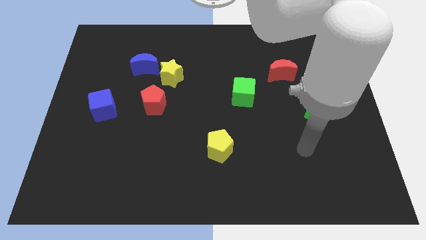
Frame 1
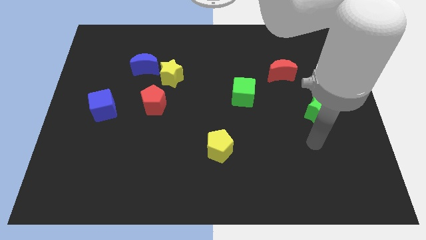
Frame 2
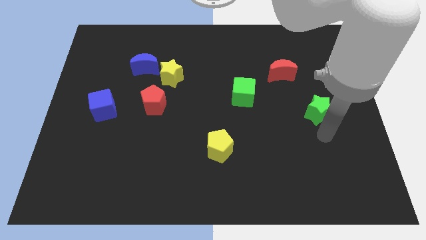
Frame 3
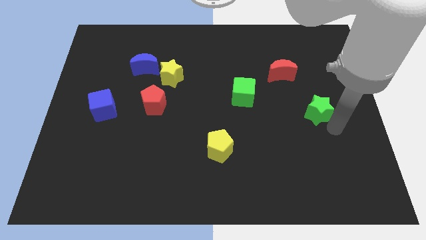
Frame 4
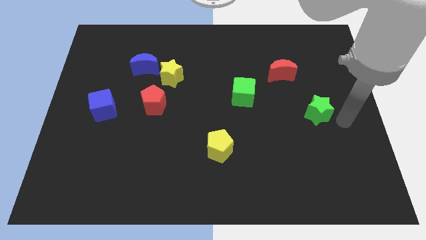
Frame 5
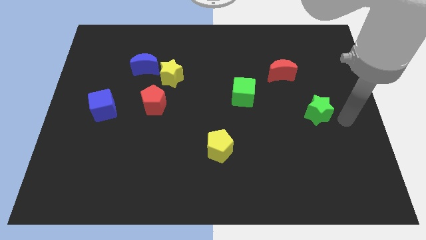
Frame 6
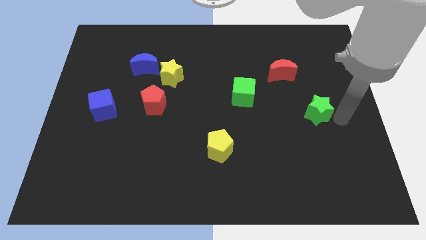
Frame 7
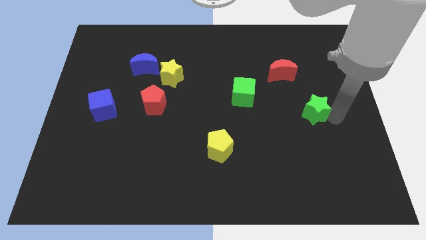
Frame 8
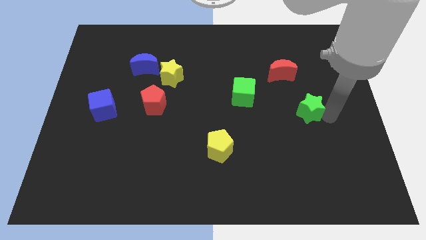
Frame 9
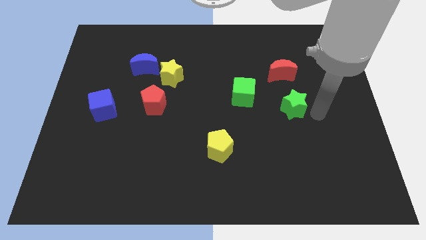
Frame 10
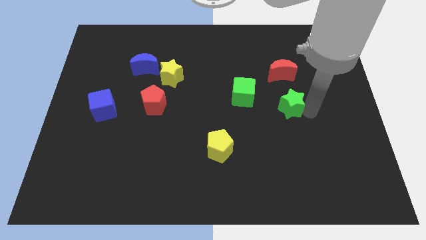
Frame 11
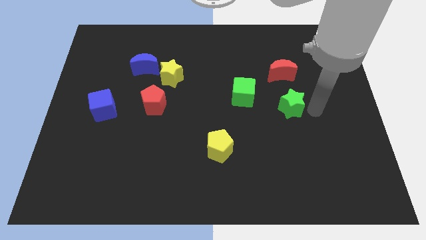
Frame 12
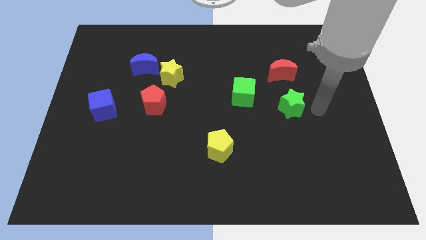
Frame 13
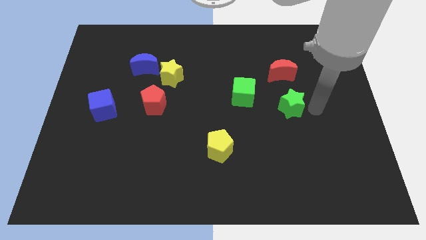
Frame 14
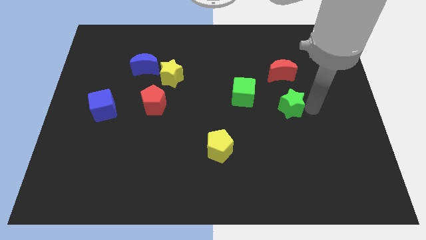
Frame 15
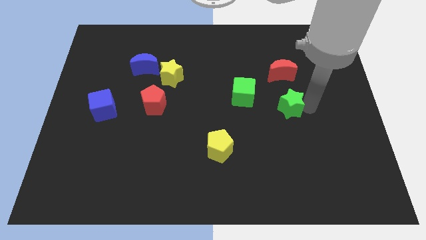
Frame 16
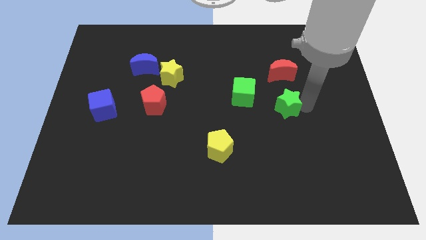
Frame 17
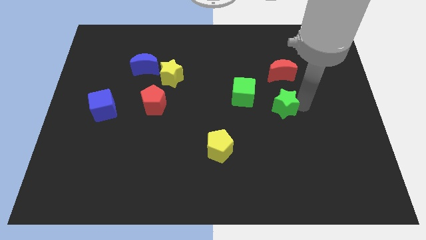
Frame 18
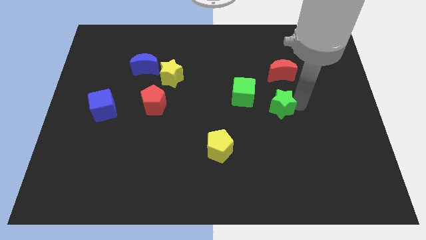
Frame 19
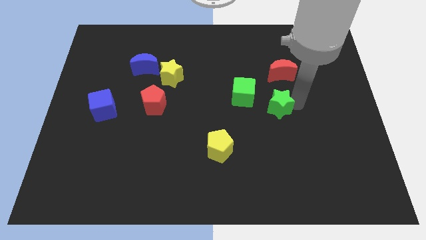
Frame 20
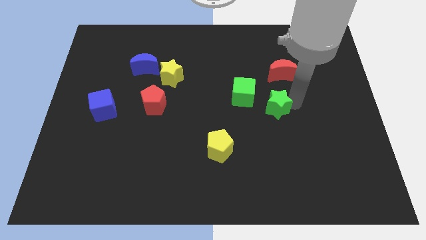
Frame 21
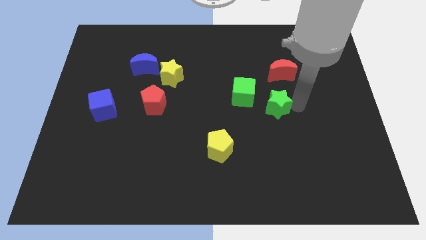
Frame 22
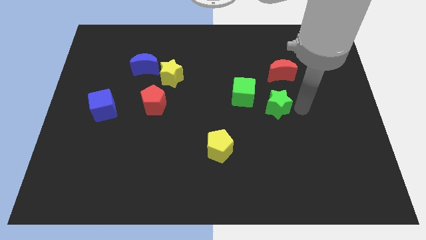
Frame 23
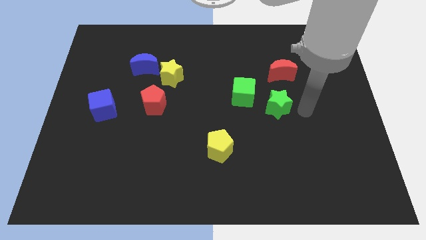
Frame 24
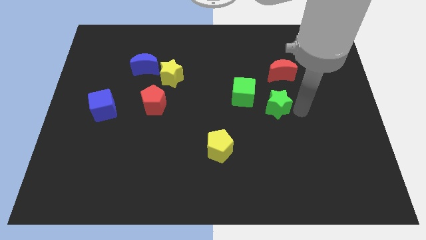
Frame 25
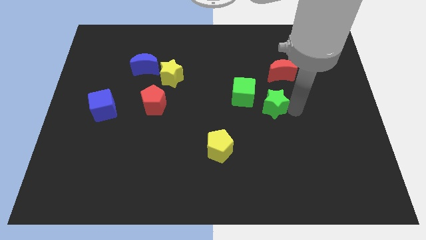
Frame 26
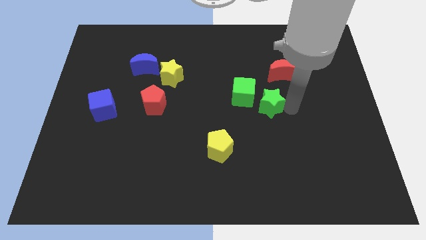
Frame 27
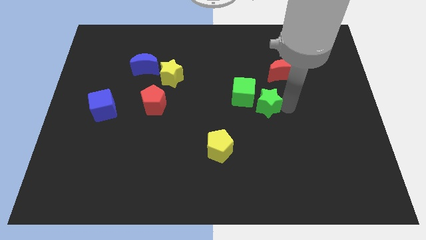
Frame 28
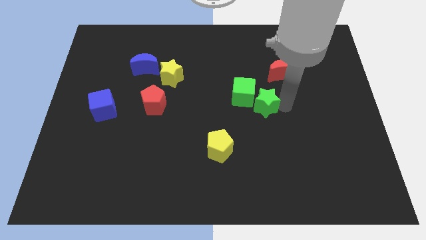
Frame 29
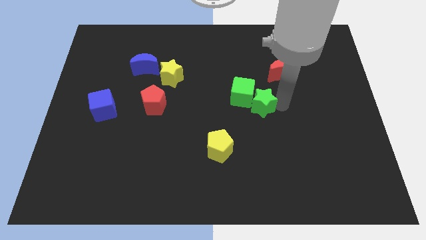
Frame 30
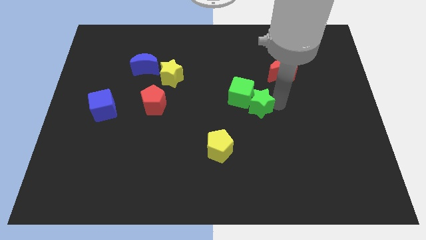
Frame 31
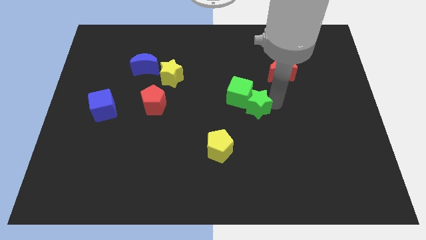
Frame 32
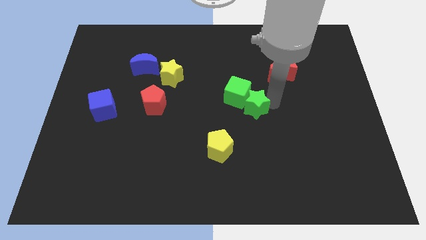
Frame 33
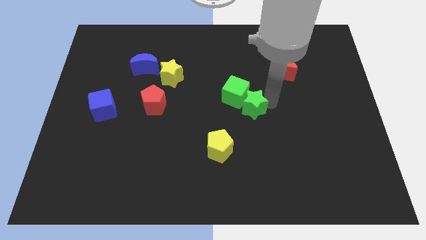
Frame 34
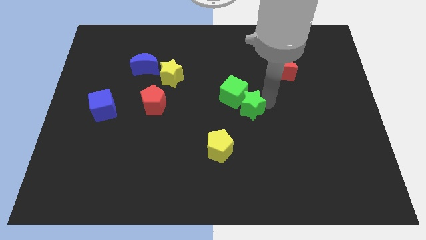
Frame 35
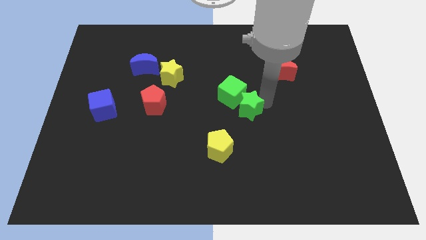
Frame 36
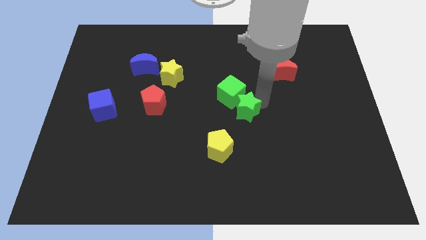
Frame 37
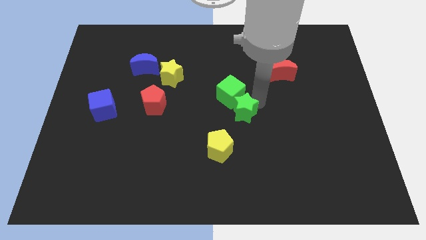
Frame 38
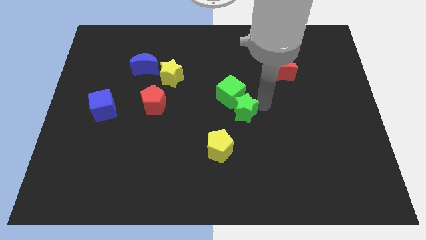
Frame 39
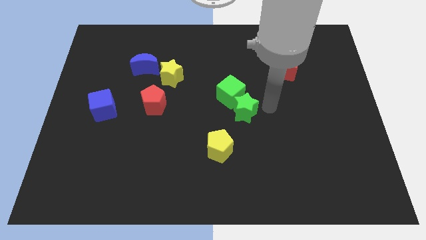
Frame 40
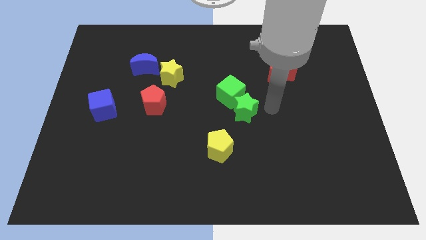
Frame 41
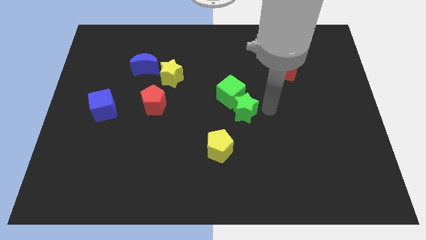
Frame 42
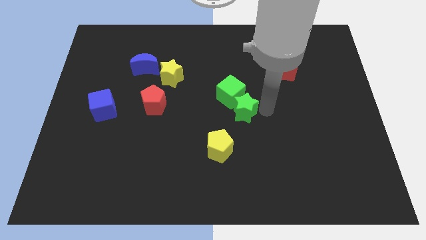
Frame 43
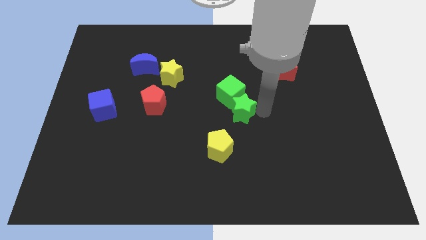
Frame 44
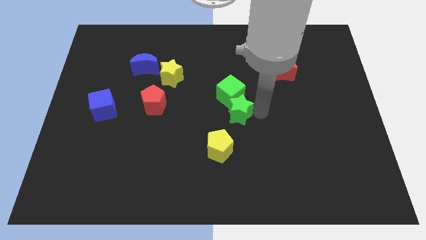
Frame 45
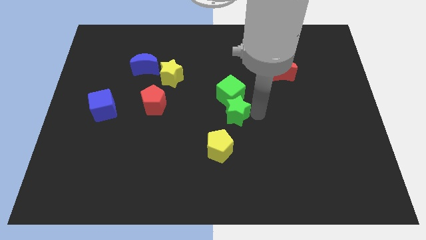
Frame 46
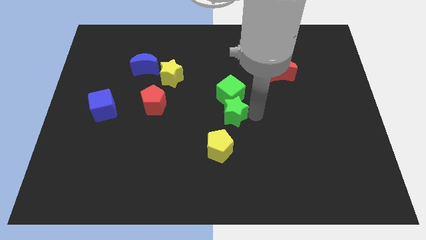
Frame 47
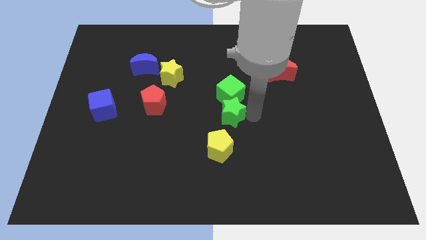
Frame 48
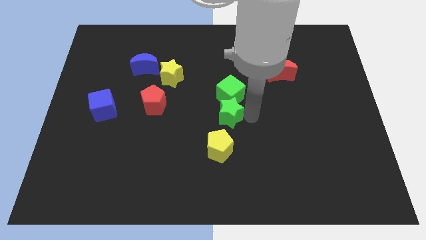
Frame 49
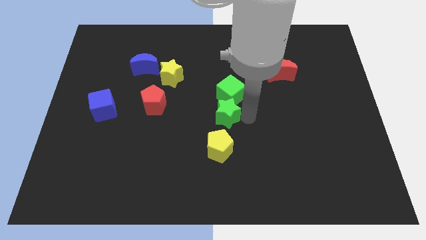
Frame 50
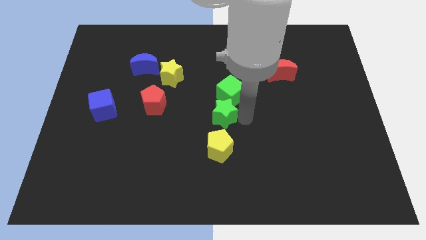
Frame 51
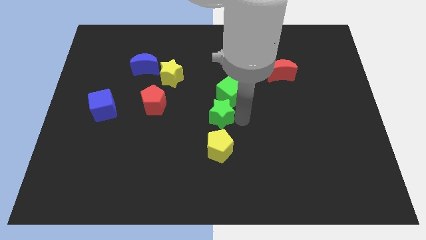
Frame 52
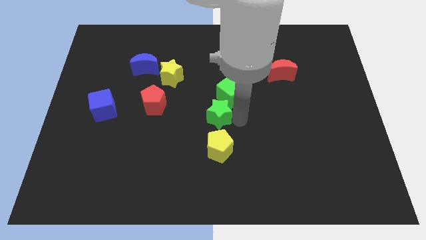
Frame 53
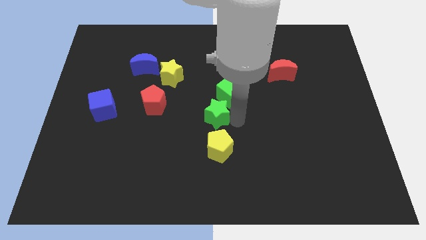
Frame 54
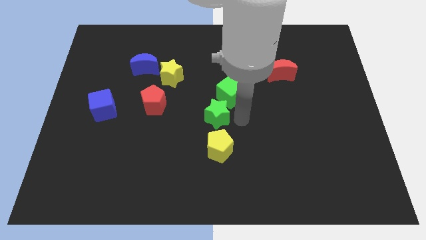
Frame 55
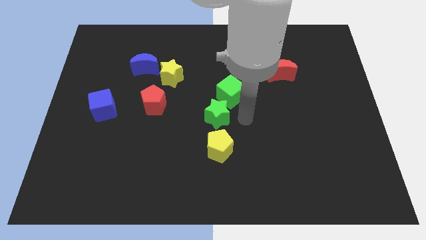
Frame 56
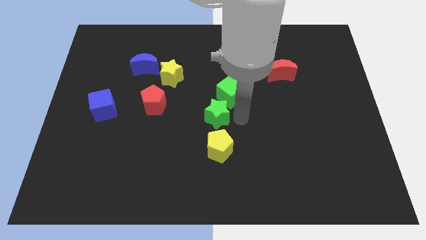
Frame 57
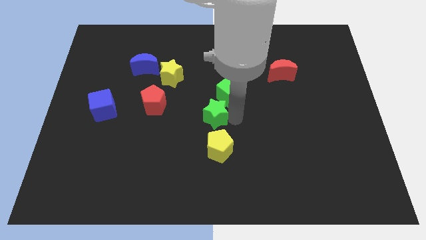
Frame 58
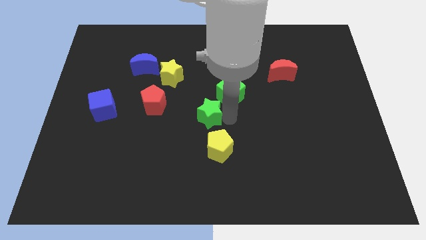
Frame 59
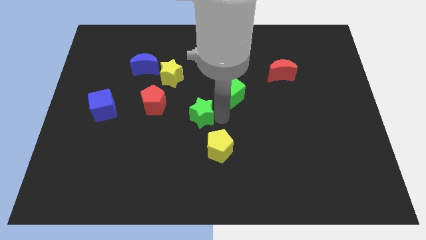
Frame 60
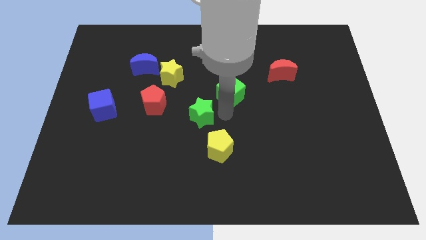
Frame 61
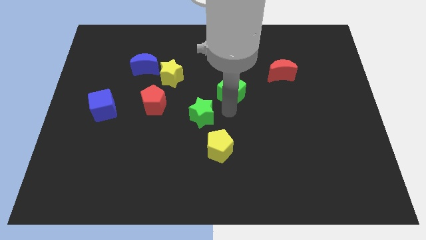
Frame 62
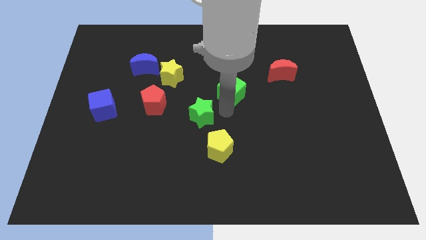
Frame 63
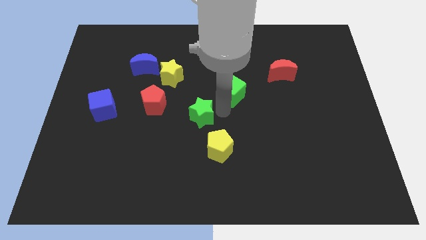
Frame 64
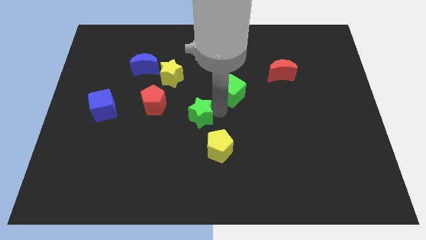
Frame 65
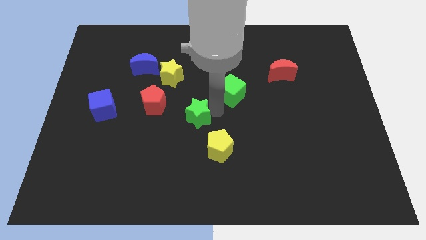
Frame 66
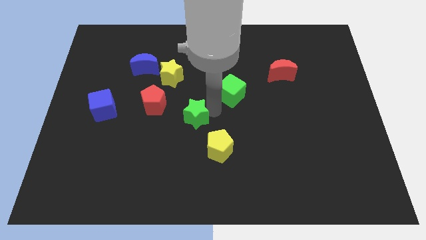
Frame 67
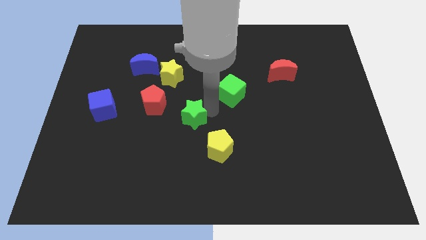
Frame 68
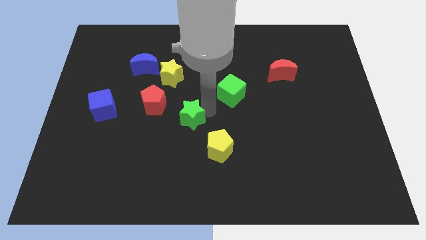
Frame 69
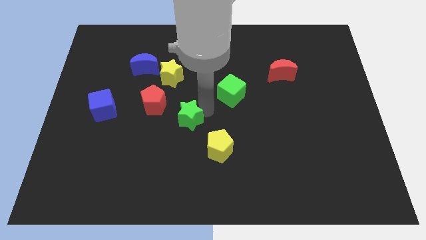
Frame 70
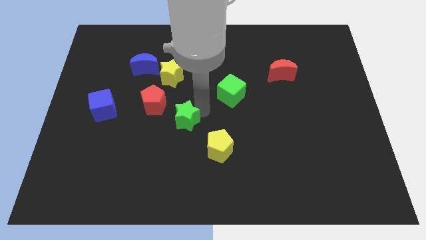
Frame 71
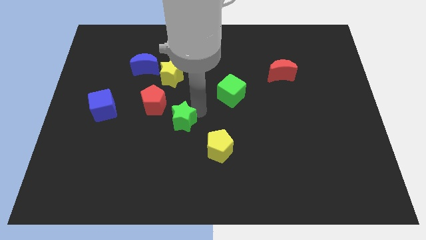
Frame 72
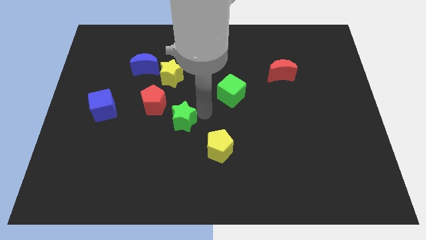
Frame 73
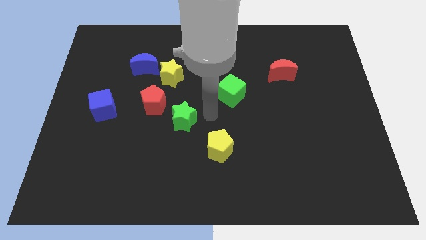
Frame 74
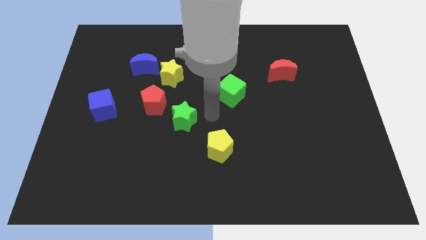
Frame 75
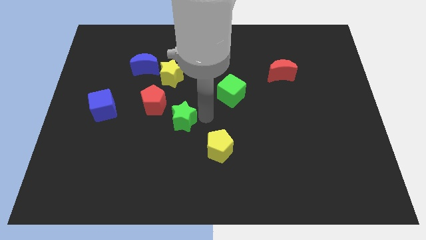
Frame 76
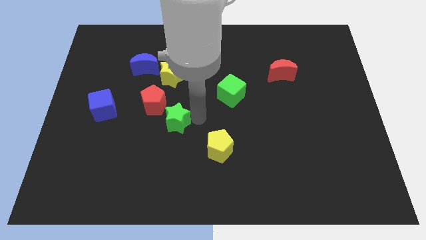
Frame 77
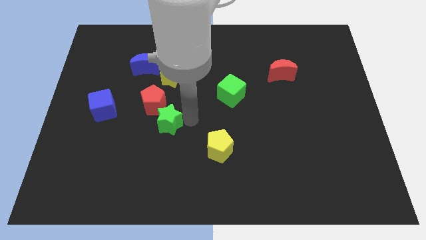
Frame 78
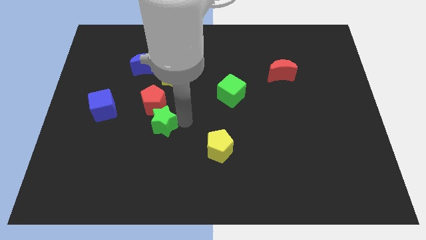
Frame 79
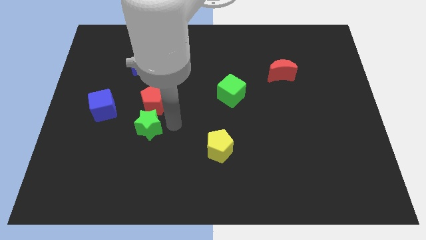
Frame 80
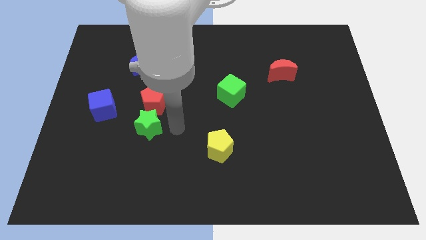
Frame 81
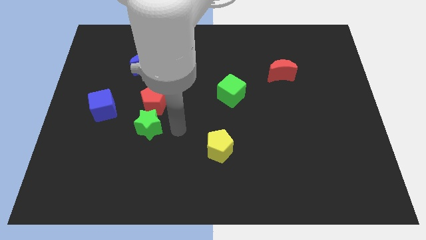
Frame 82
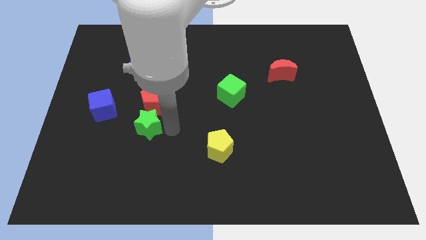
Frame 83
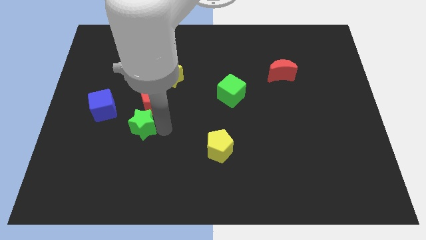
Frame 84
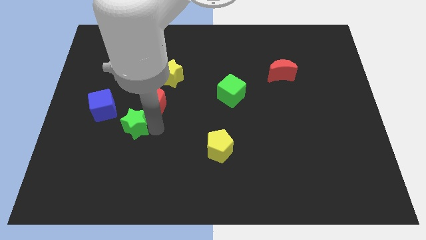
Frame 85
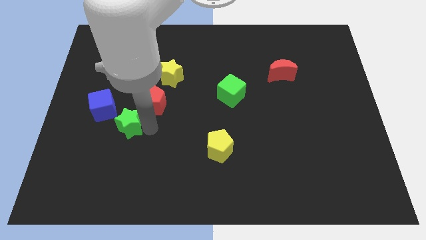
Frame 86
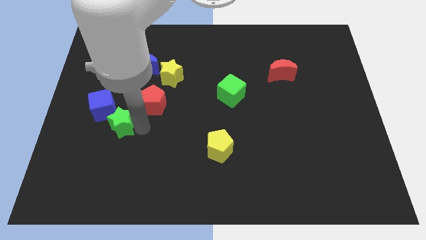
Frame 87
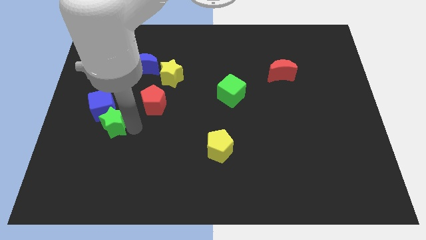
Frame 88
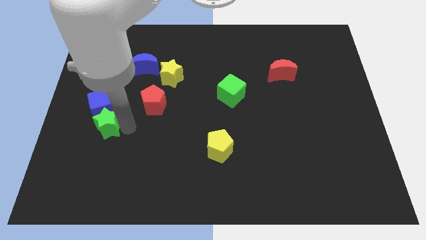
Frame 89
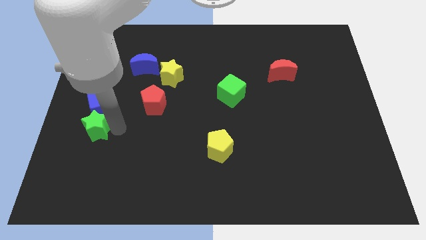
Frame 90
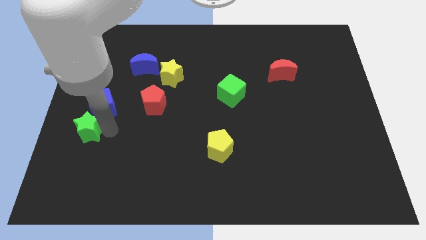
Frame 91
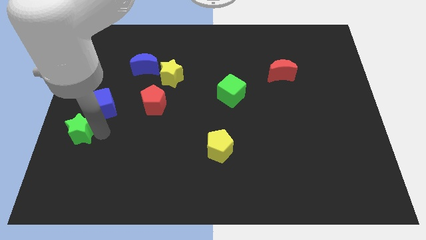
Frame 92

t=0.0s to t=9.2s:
slide the green star to the center left
